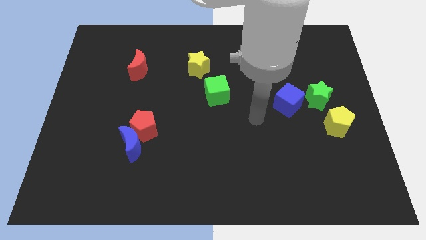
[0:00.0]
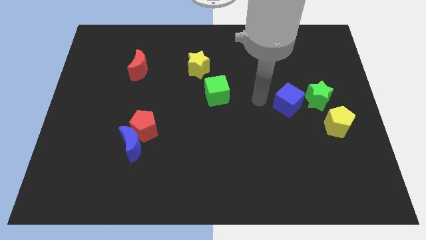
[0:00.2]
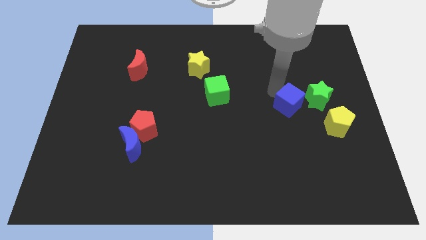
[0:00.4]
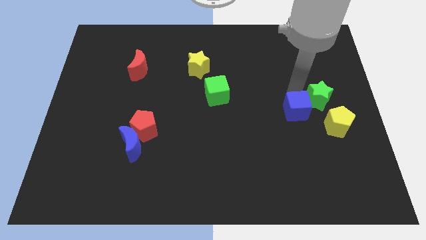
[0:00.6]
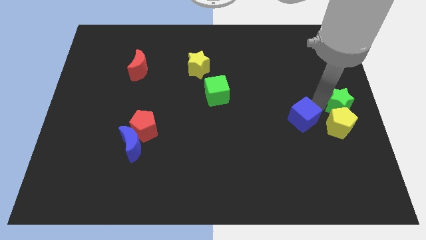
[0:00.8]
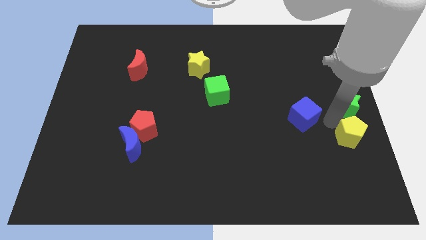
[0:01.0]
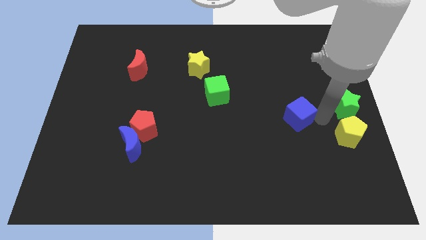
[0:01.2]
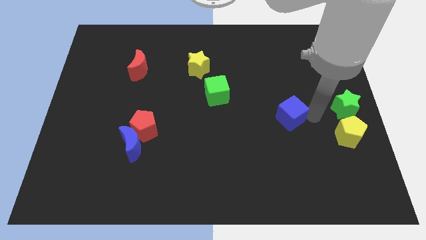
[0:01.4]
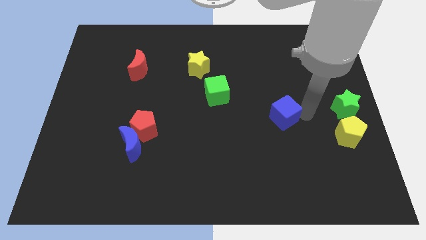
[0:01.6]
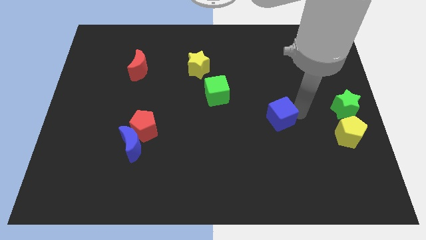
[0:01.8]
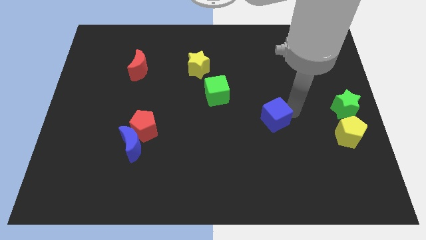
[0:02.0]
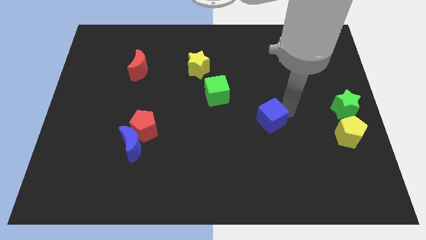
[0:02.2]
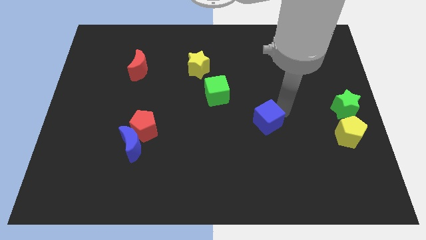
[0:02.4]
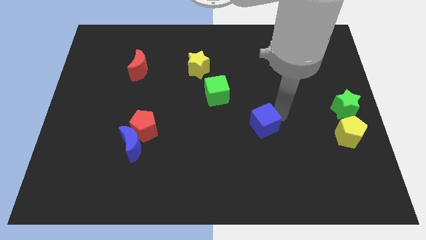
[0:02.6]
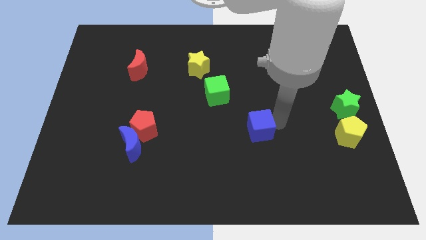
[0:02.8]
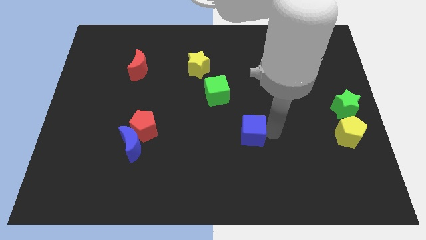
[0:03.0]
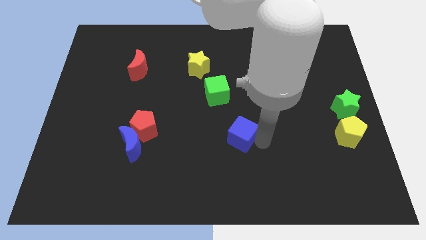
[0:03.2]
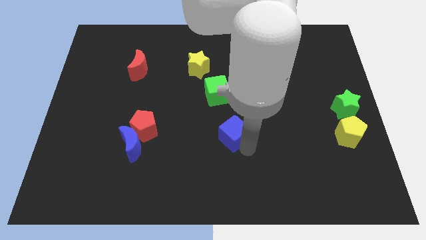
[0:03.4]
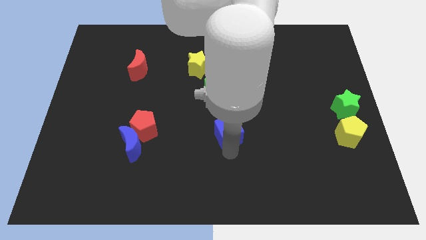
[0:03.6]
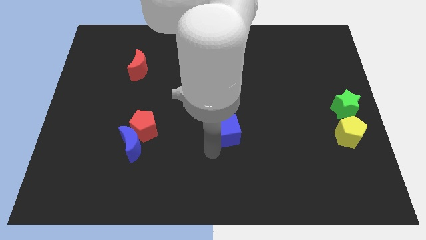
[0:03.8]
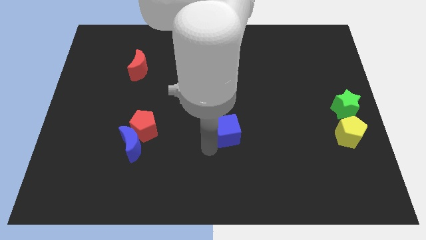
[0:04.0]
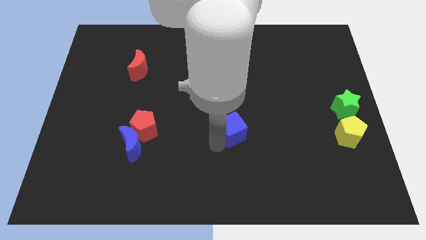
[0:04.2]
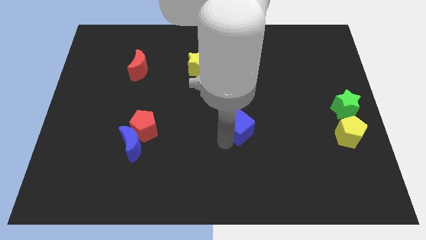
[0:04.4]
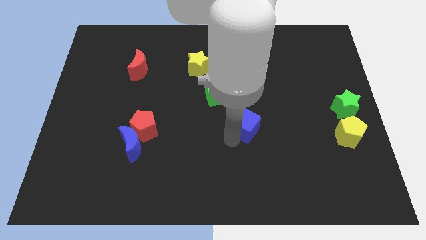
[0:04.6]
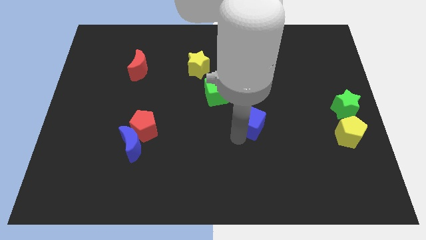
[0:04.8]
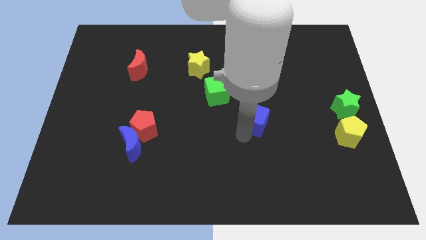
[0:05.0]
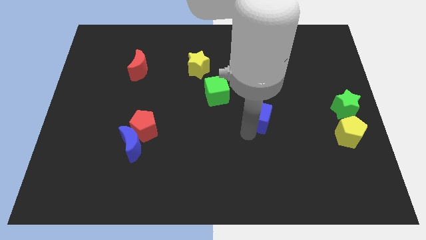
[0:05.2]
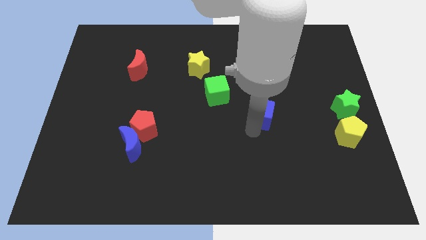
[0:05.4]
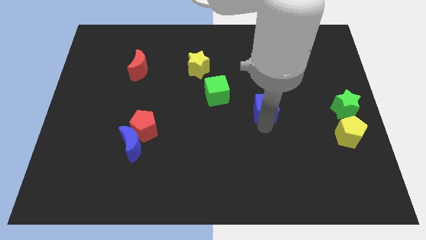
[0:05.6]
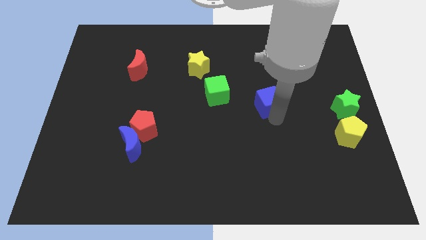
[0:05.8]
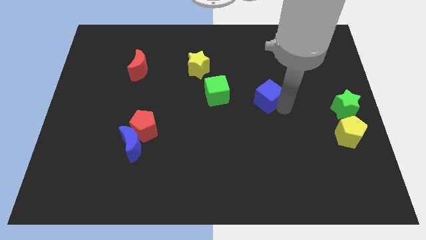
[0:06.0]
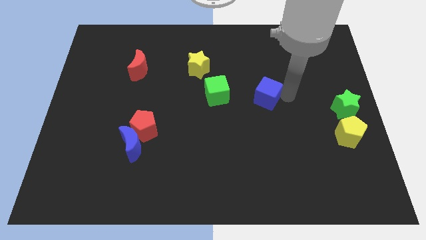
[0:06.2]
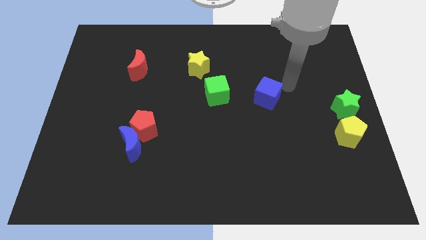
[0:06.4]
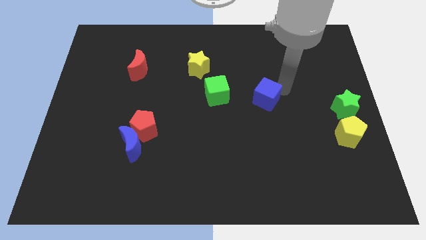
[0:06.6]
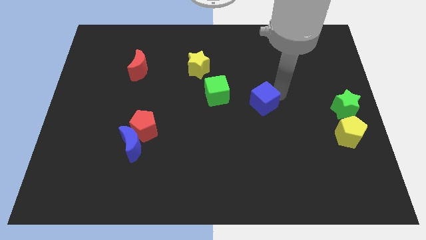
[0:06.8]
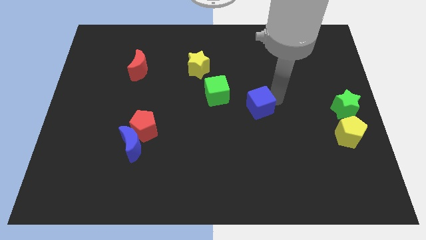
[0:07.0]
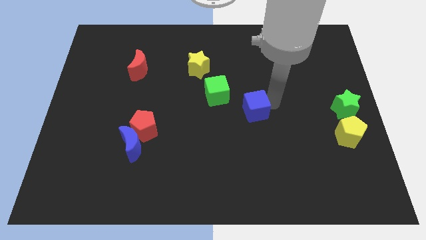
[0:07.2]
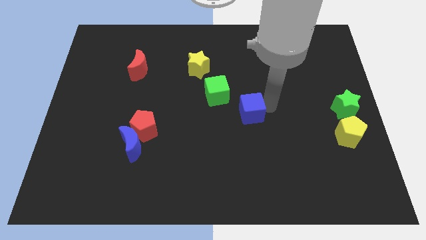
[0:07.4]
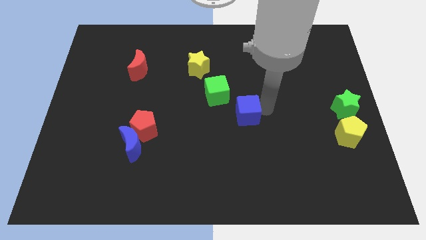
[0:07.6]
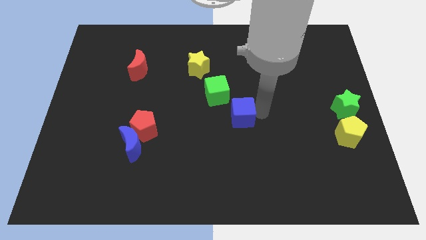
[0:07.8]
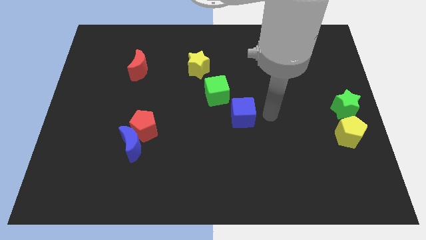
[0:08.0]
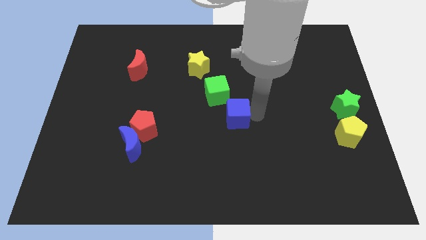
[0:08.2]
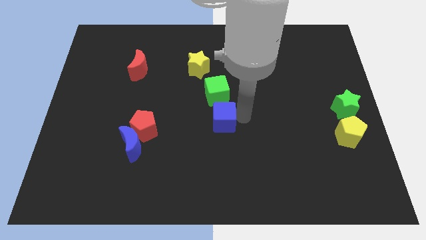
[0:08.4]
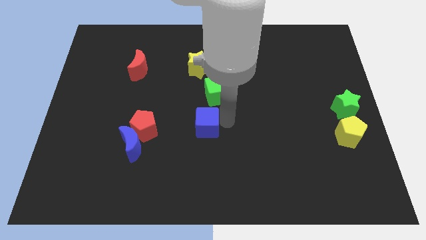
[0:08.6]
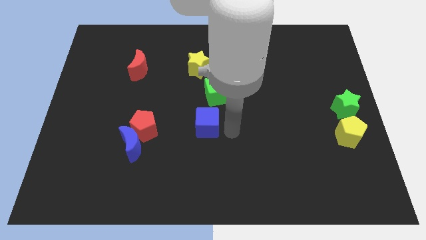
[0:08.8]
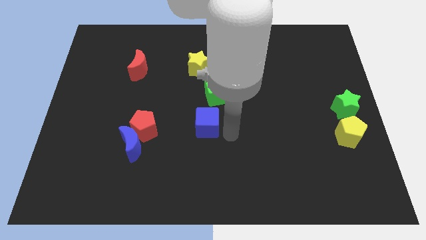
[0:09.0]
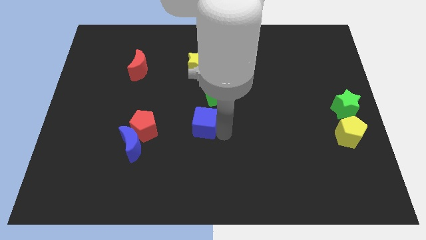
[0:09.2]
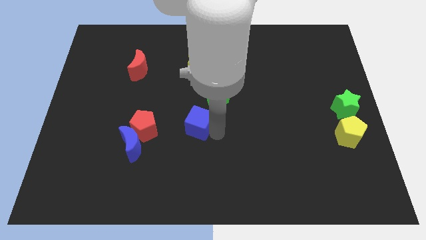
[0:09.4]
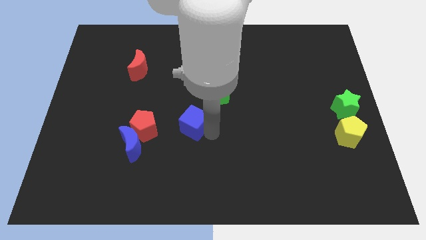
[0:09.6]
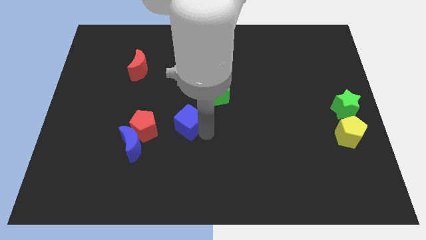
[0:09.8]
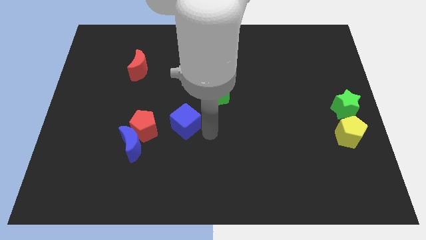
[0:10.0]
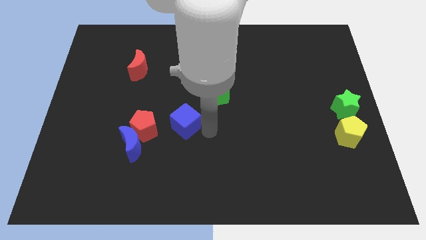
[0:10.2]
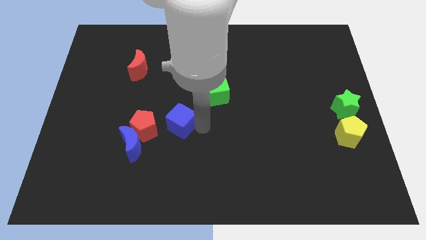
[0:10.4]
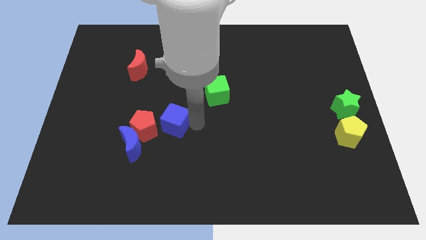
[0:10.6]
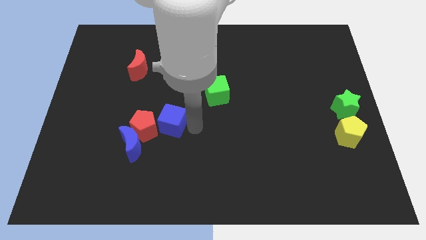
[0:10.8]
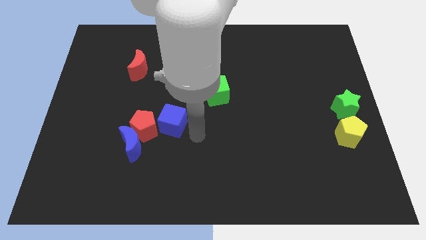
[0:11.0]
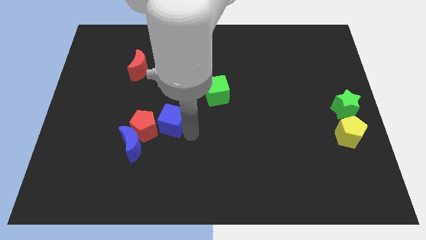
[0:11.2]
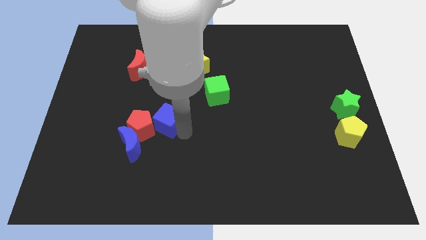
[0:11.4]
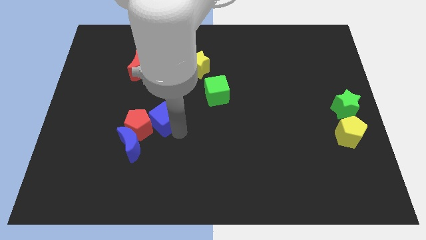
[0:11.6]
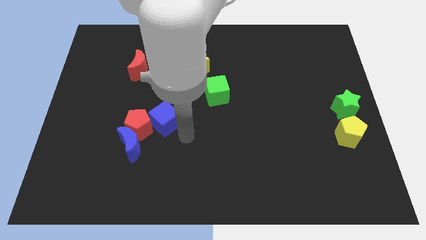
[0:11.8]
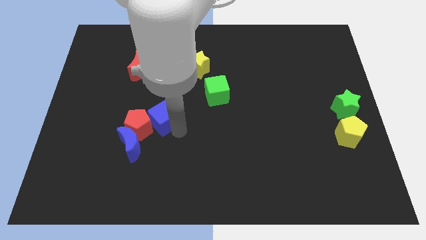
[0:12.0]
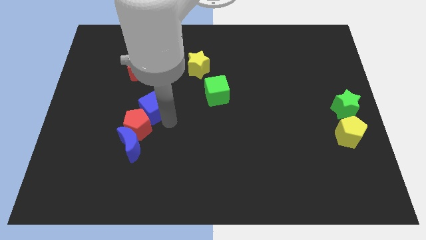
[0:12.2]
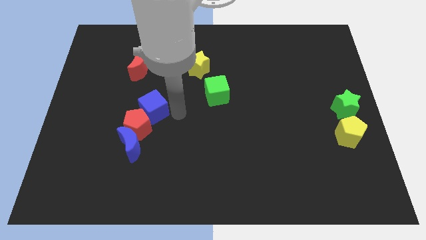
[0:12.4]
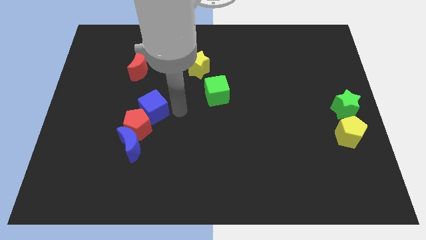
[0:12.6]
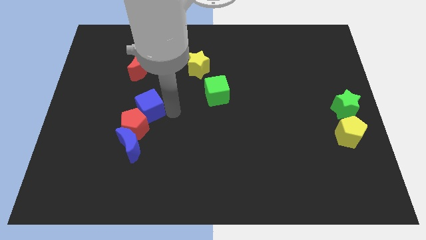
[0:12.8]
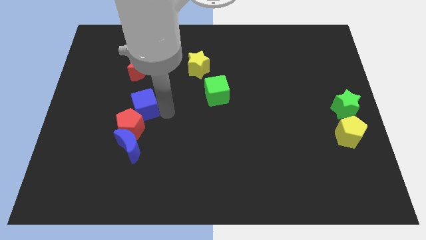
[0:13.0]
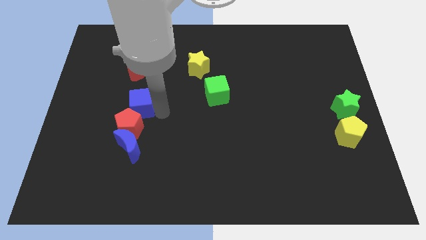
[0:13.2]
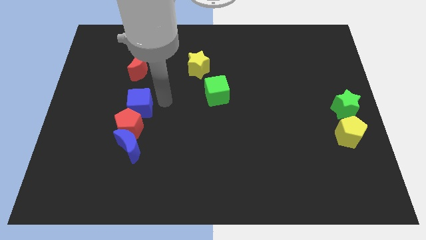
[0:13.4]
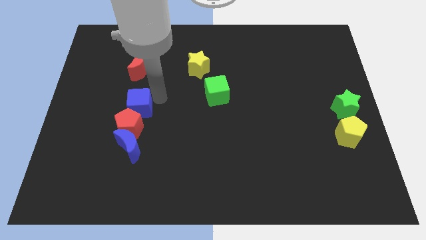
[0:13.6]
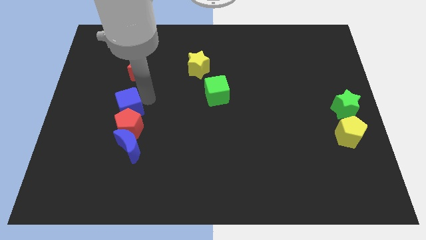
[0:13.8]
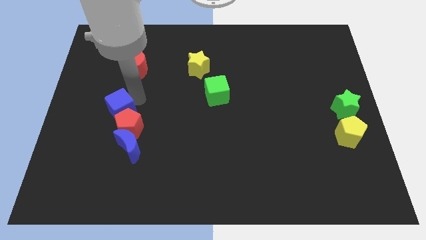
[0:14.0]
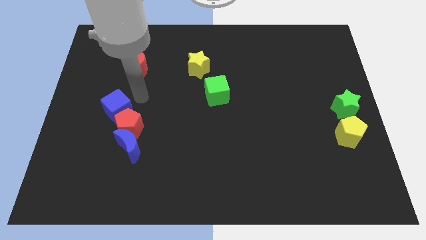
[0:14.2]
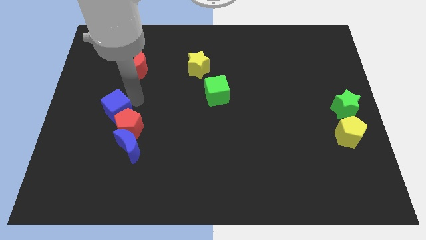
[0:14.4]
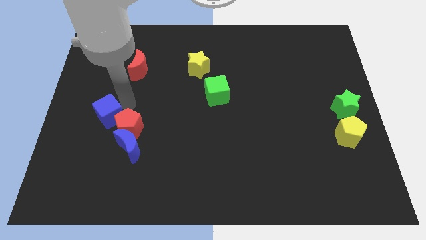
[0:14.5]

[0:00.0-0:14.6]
push the blue cube to the left side of the red pentagon
